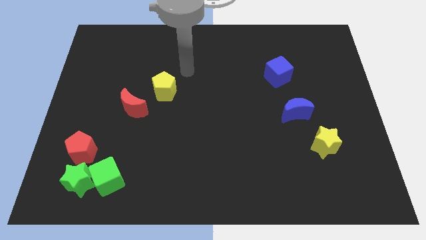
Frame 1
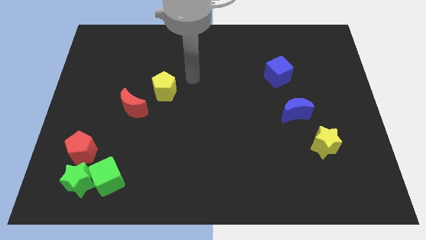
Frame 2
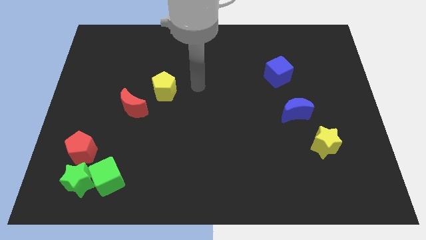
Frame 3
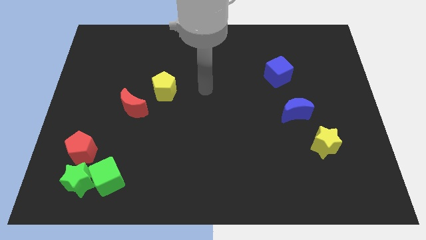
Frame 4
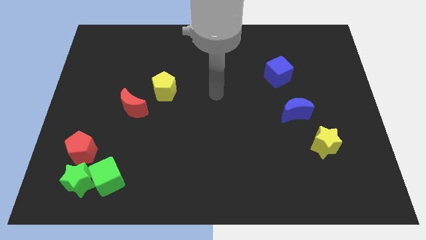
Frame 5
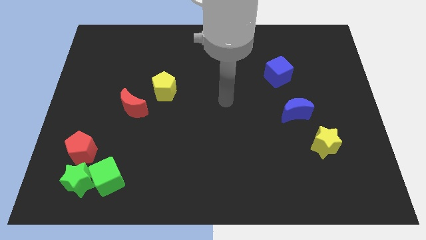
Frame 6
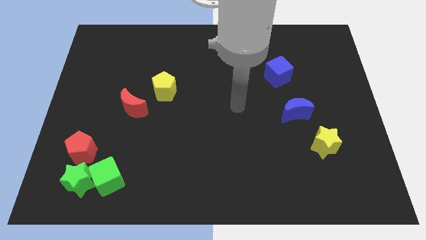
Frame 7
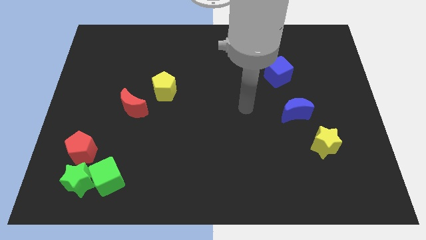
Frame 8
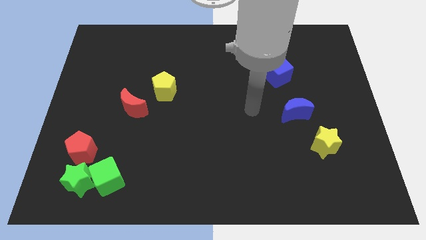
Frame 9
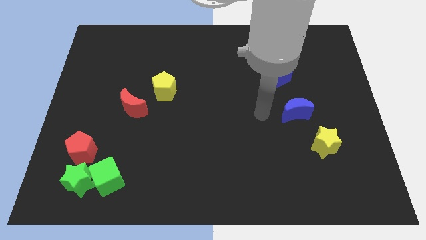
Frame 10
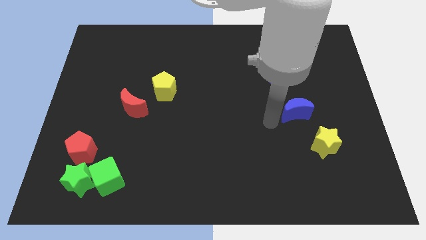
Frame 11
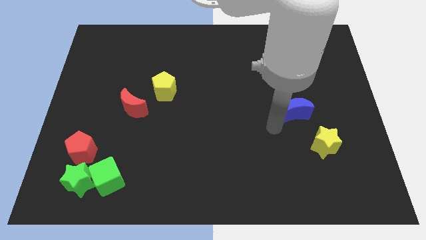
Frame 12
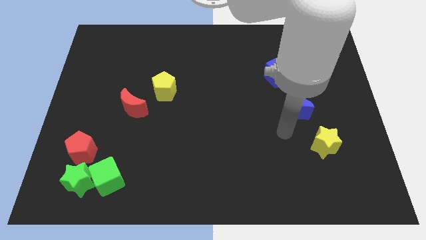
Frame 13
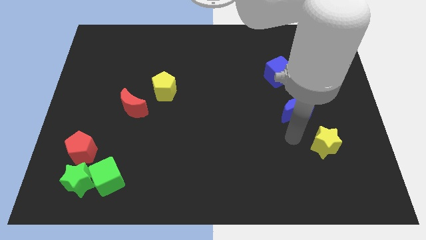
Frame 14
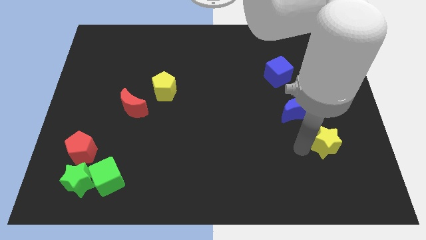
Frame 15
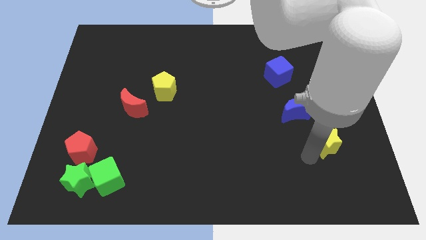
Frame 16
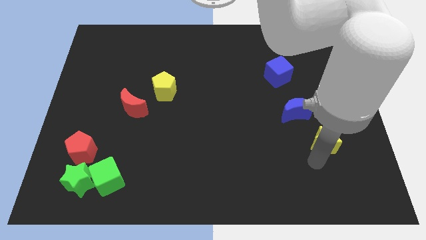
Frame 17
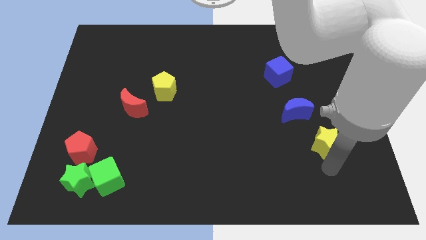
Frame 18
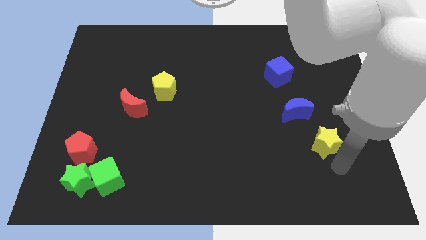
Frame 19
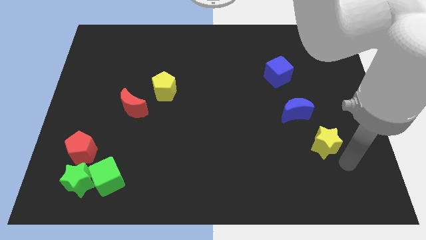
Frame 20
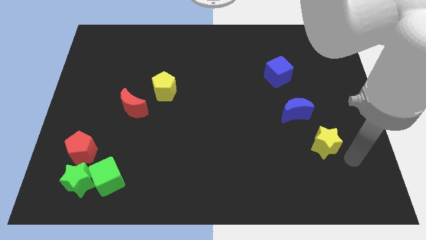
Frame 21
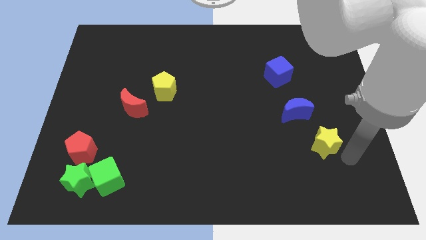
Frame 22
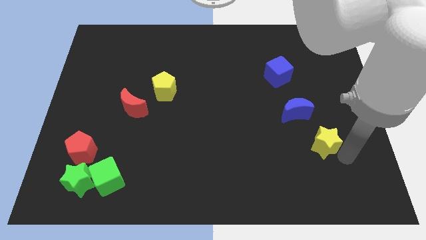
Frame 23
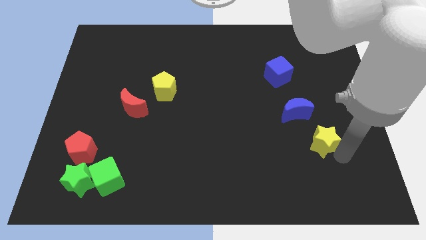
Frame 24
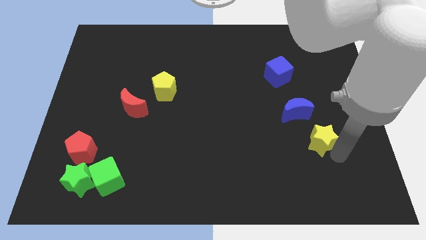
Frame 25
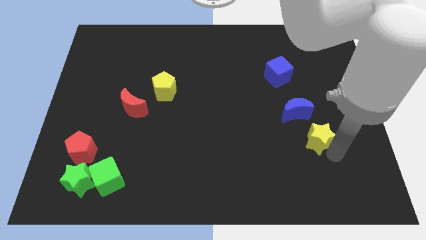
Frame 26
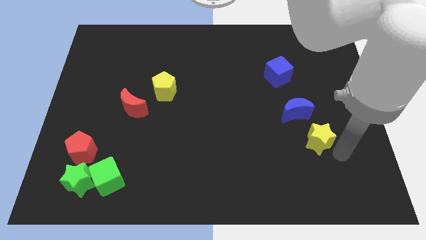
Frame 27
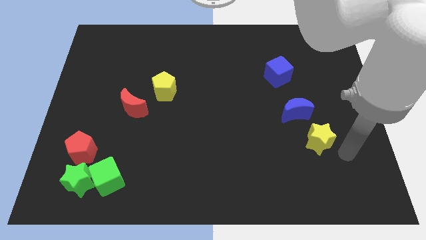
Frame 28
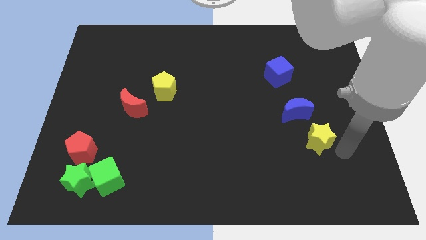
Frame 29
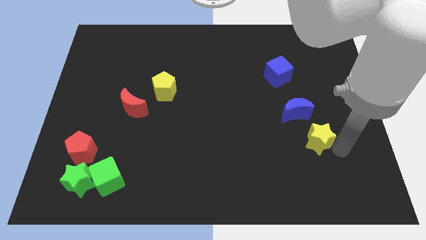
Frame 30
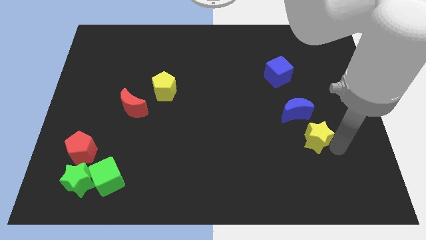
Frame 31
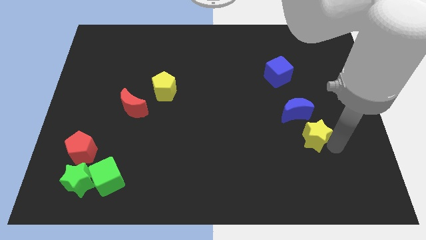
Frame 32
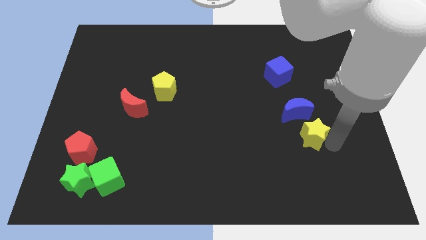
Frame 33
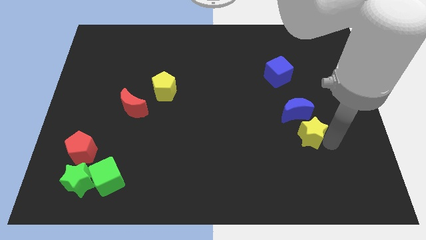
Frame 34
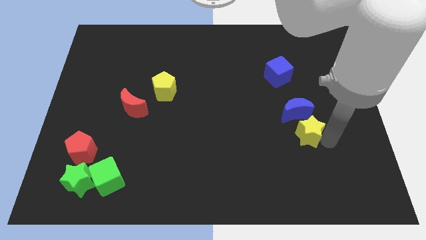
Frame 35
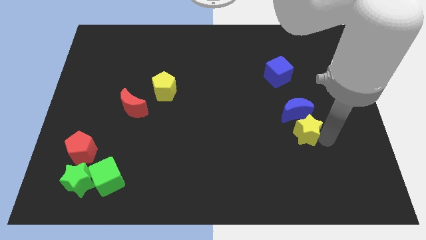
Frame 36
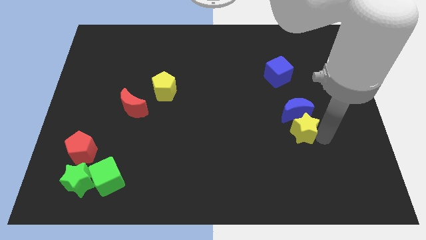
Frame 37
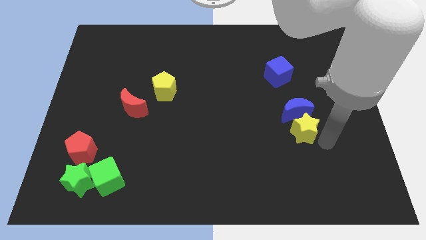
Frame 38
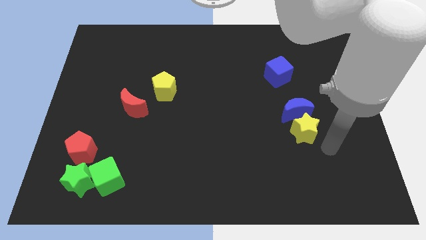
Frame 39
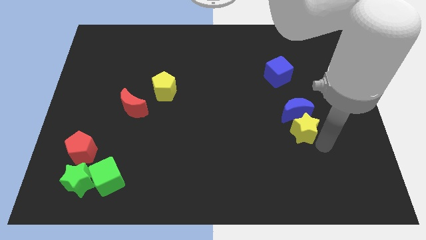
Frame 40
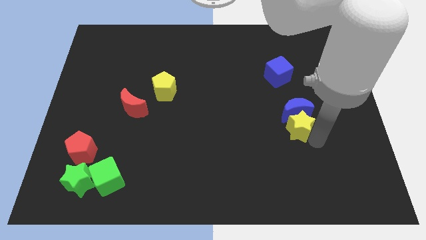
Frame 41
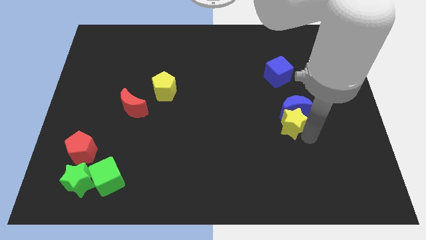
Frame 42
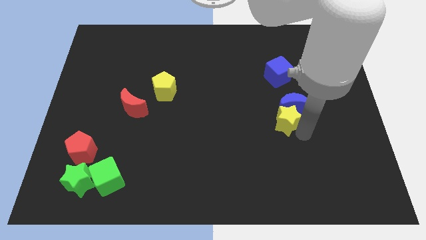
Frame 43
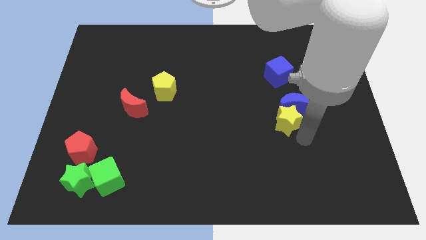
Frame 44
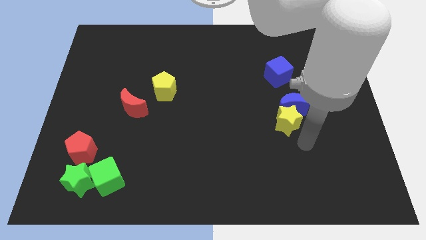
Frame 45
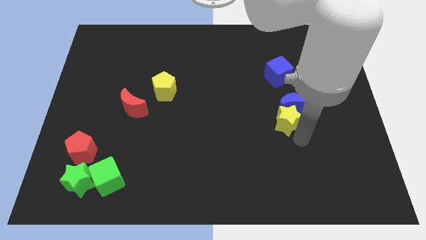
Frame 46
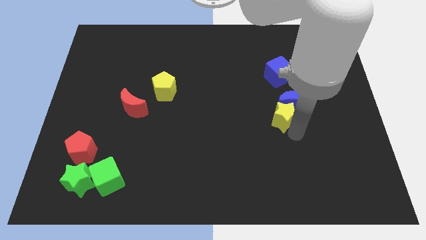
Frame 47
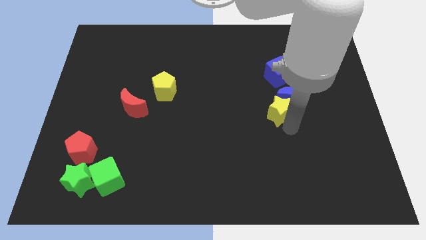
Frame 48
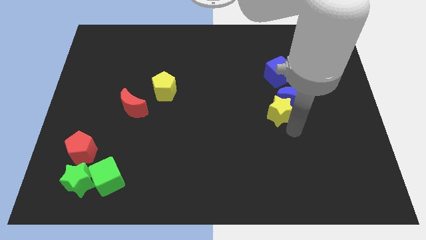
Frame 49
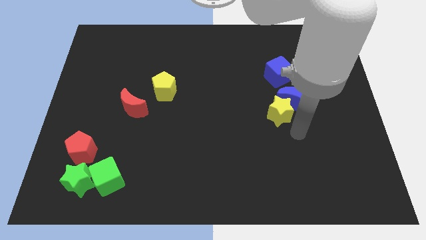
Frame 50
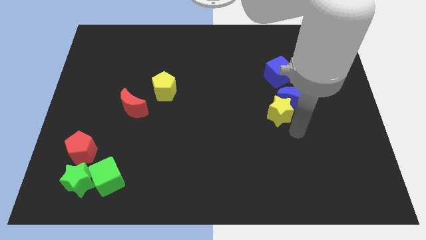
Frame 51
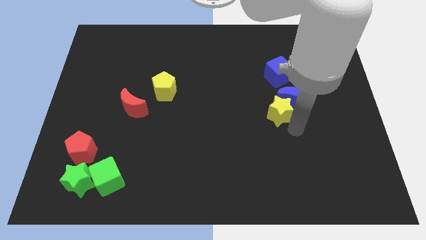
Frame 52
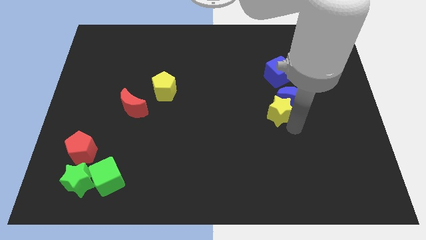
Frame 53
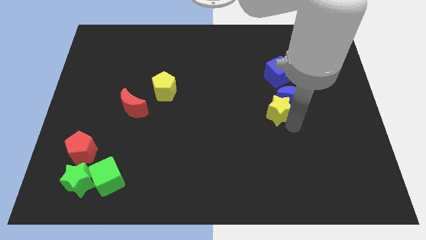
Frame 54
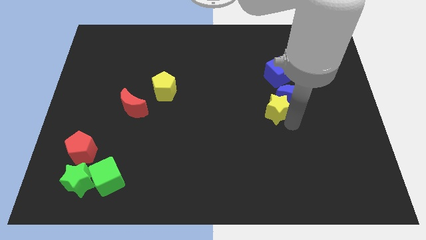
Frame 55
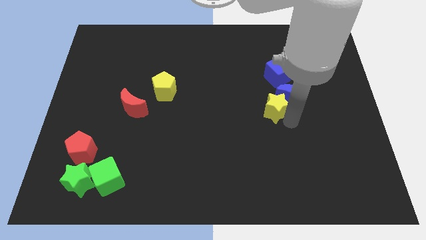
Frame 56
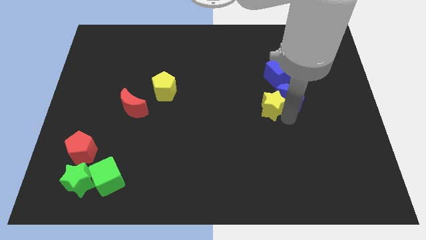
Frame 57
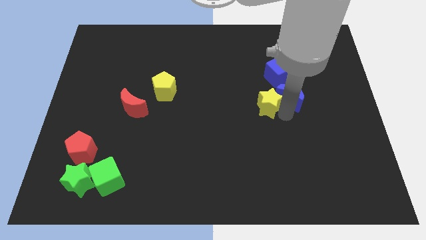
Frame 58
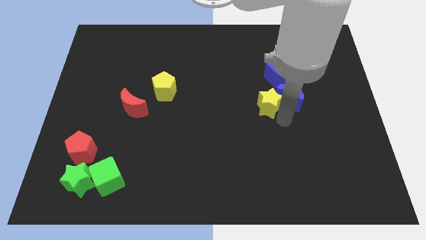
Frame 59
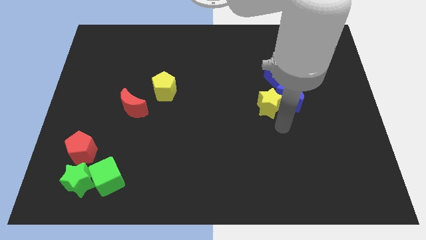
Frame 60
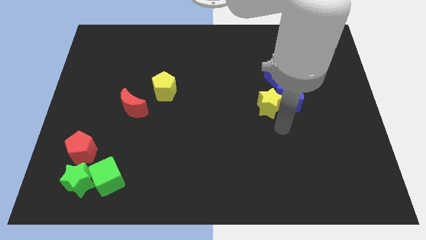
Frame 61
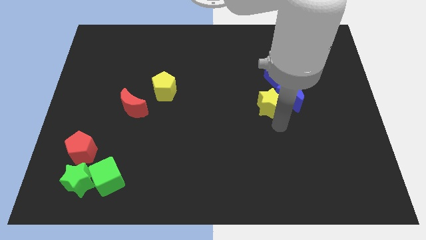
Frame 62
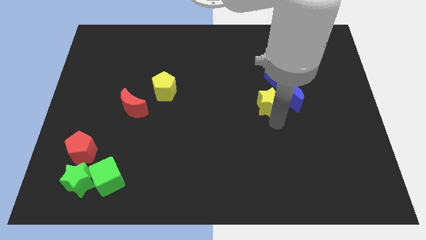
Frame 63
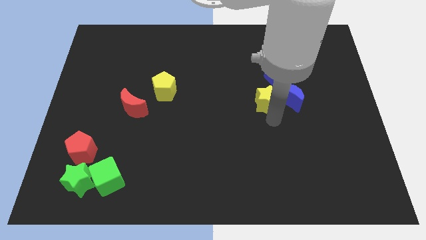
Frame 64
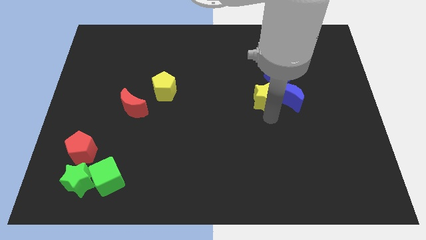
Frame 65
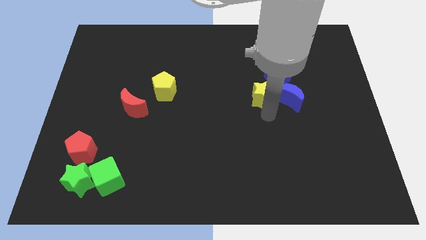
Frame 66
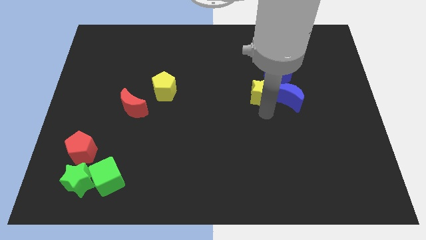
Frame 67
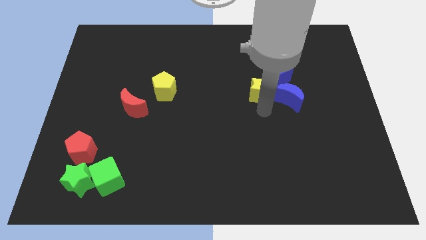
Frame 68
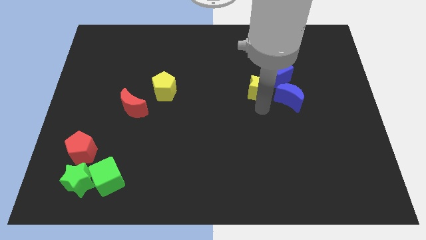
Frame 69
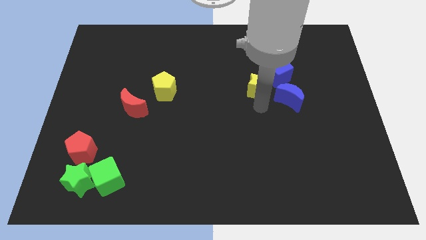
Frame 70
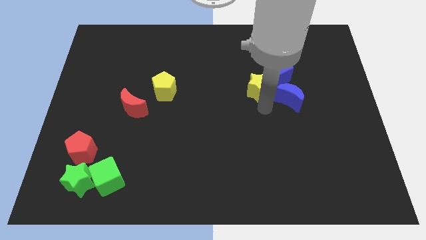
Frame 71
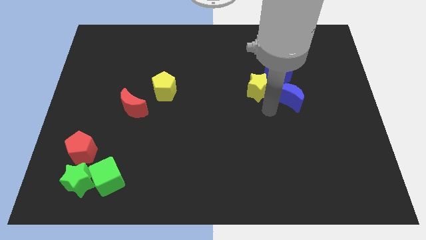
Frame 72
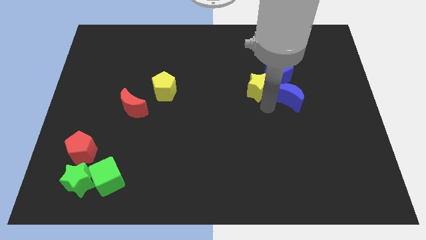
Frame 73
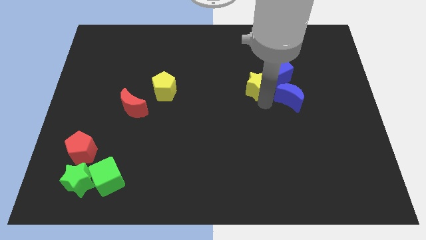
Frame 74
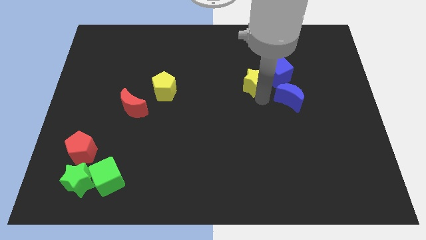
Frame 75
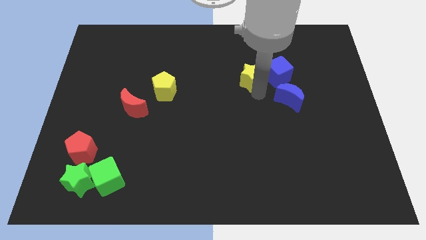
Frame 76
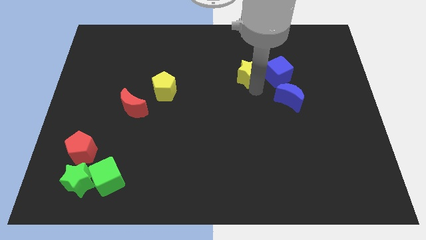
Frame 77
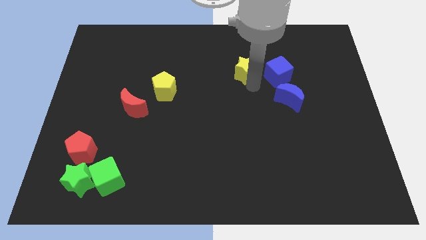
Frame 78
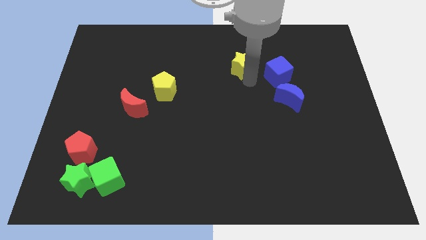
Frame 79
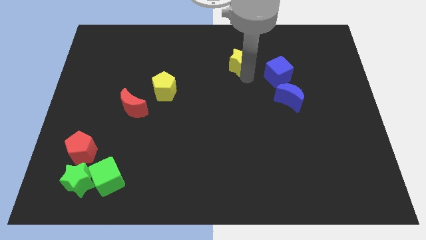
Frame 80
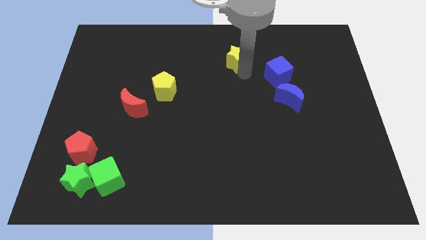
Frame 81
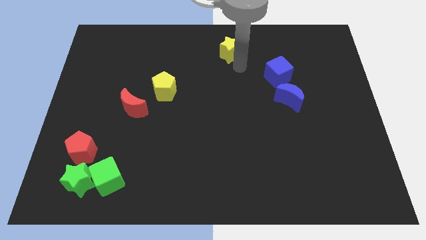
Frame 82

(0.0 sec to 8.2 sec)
slide the yellow star to the top side
